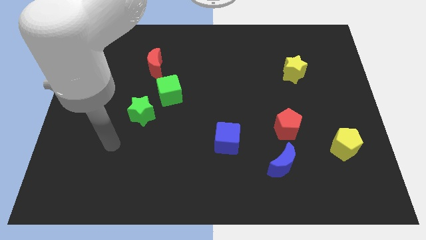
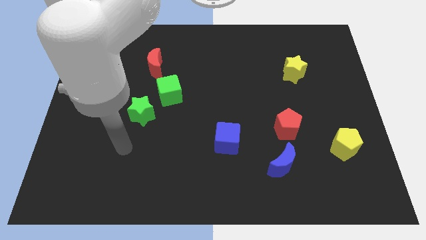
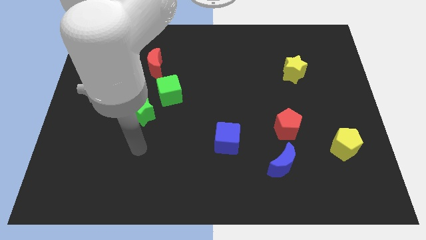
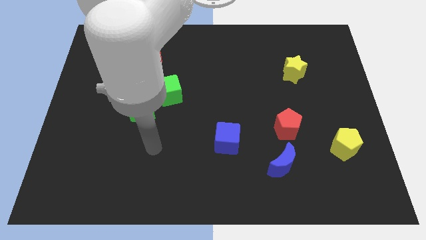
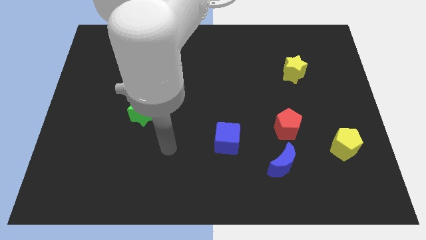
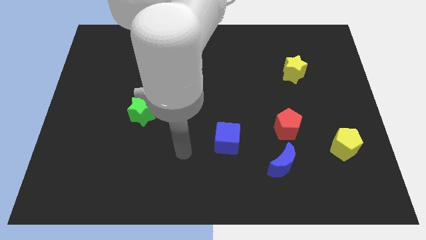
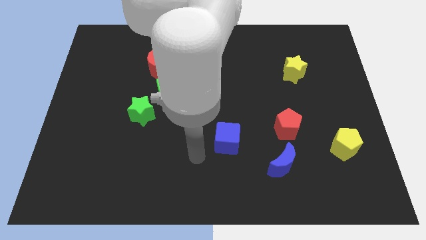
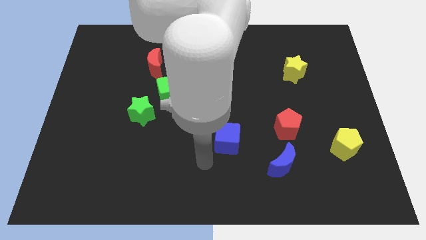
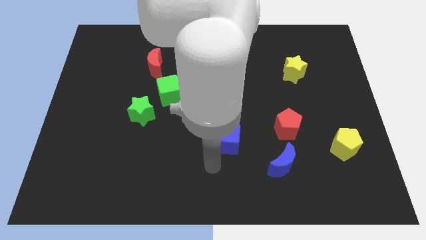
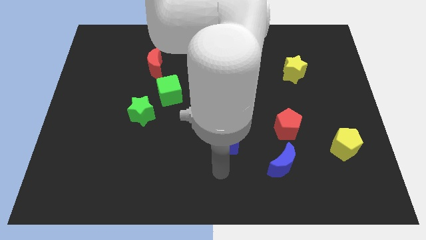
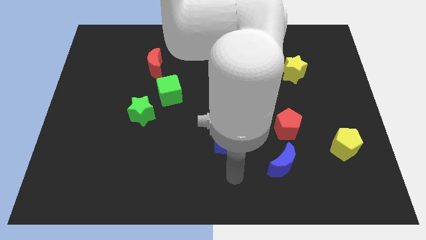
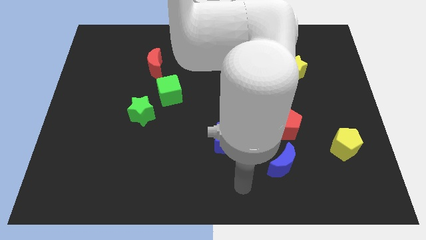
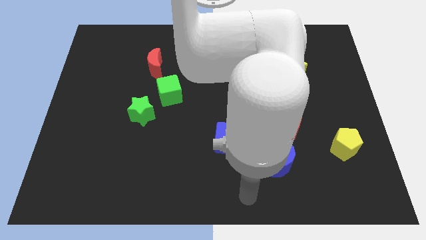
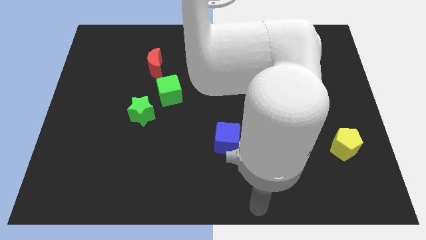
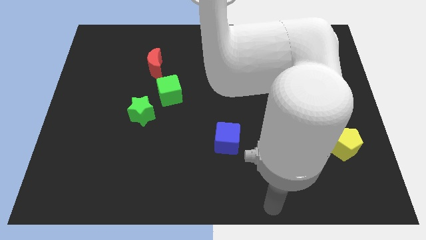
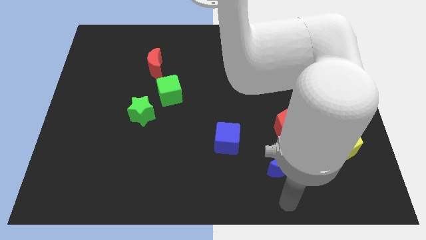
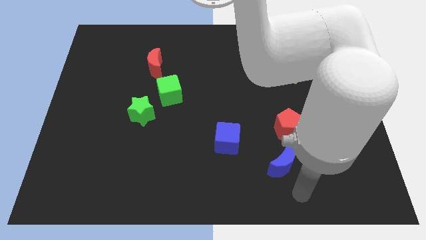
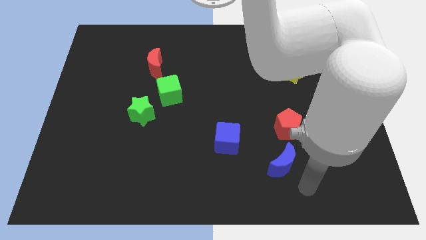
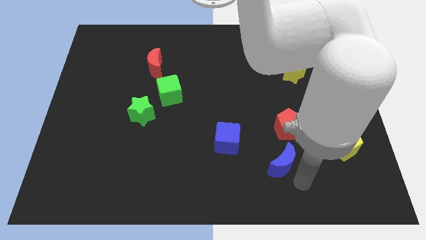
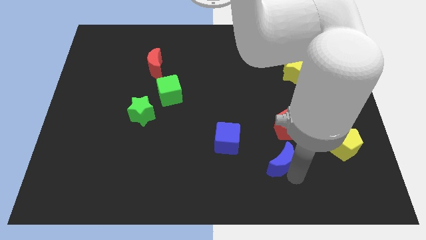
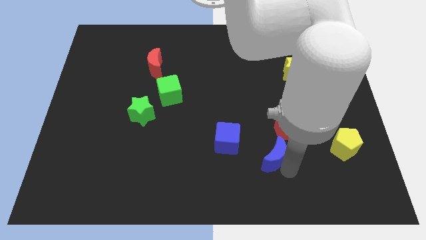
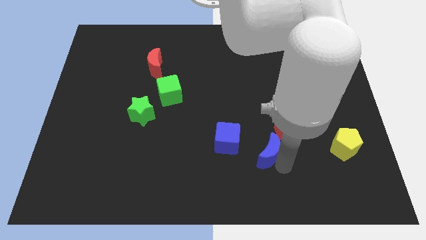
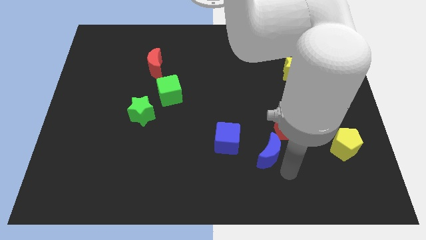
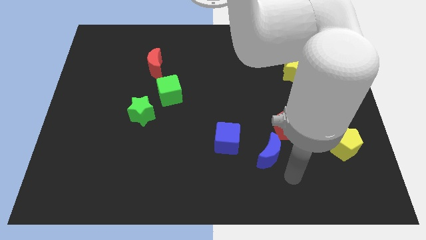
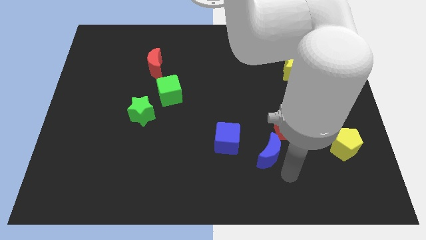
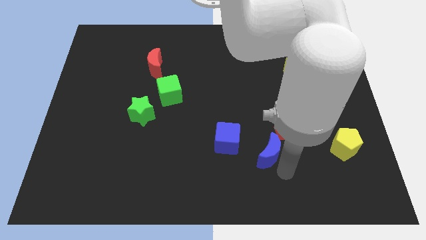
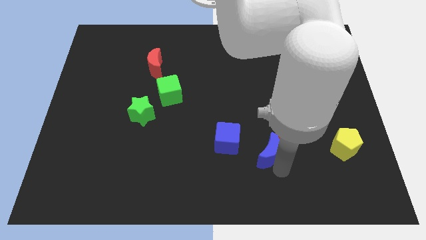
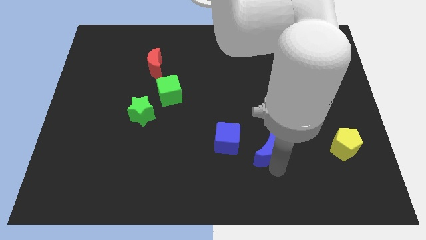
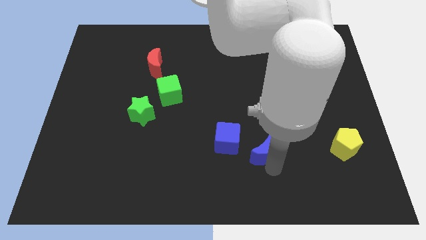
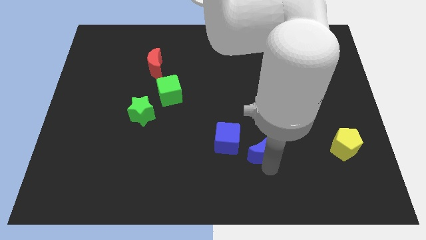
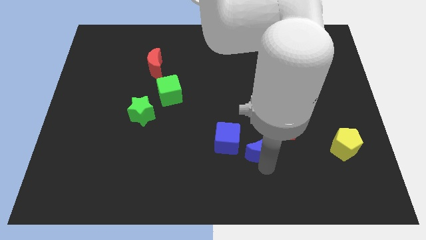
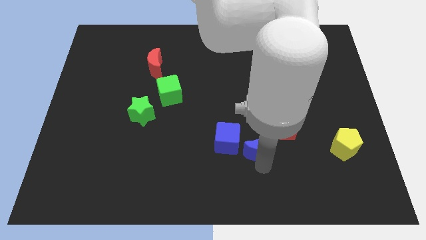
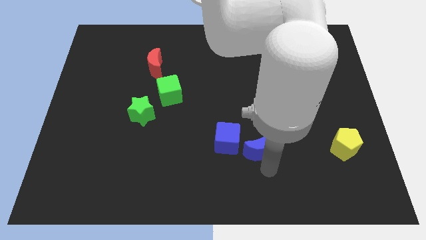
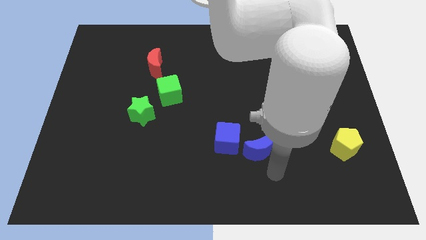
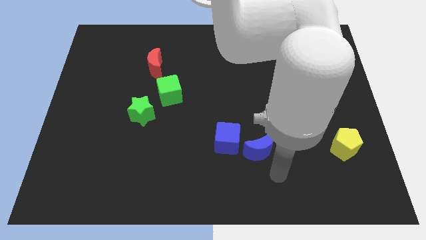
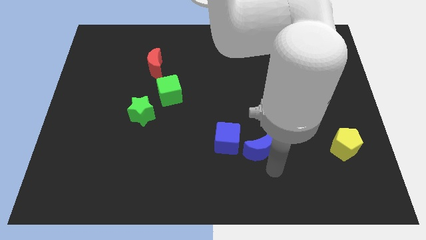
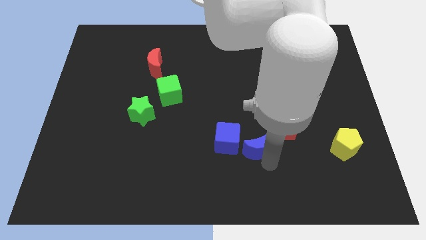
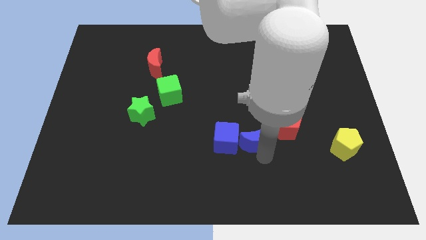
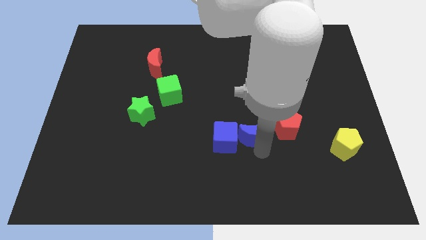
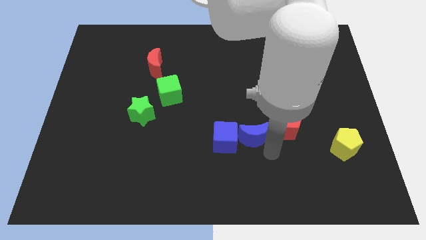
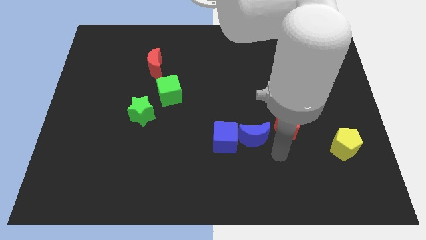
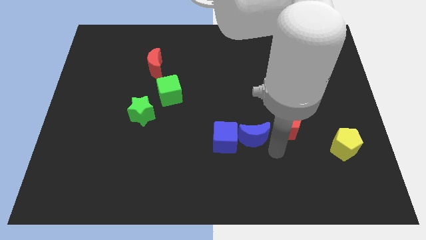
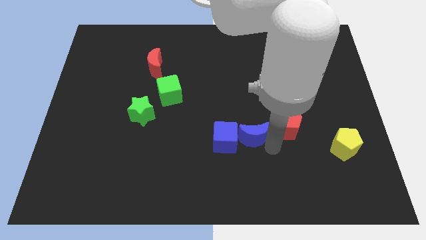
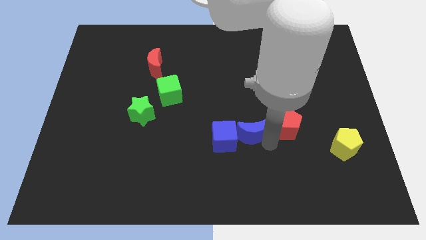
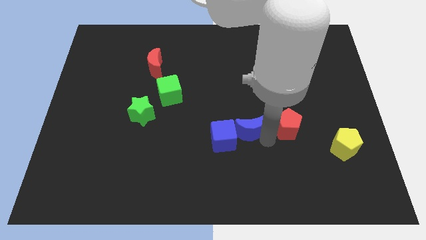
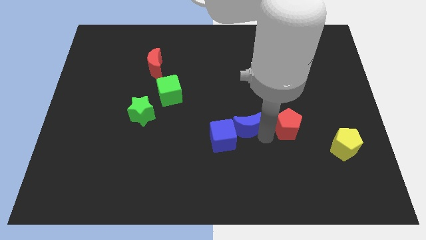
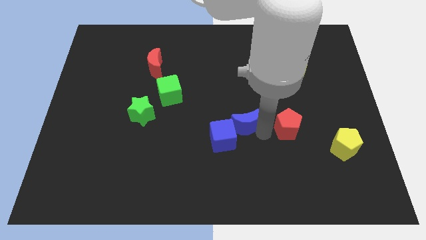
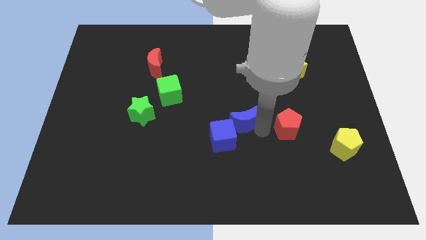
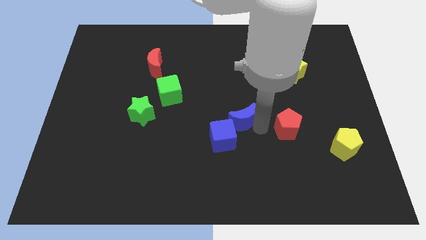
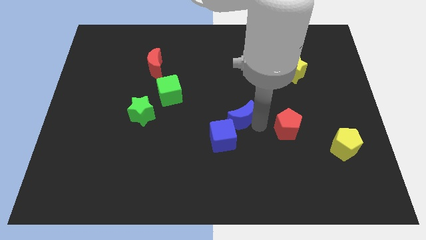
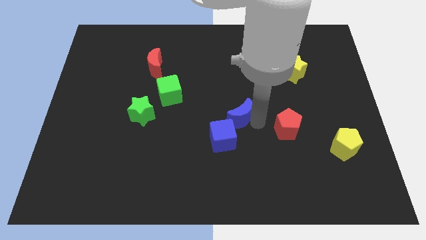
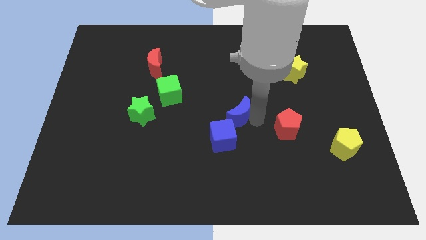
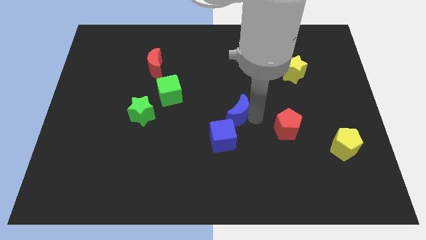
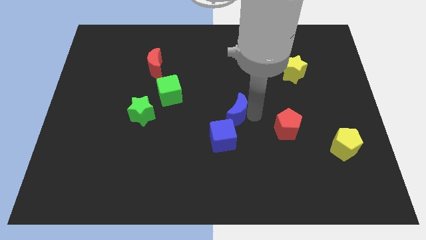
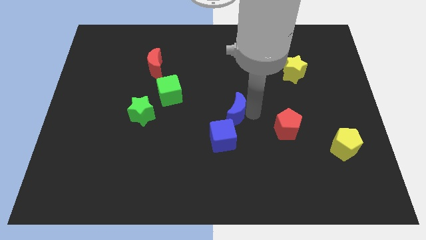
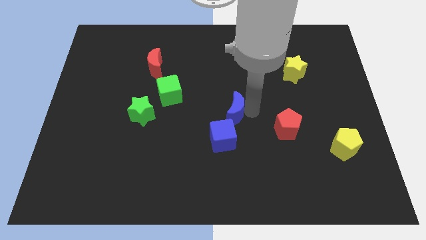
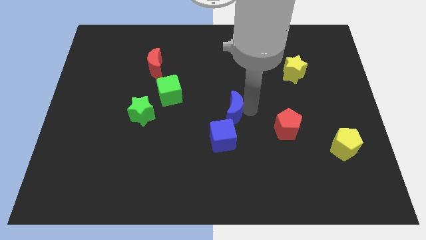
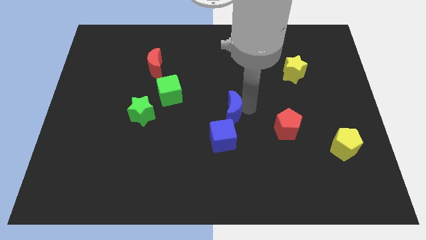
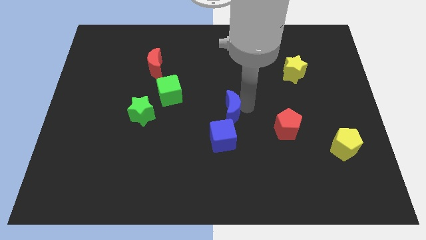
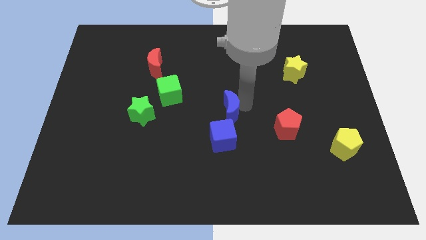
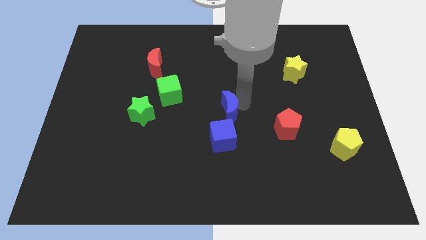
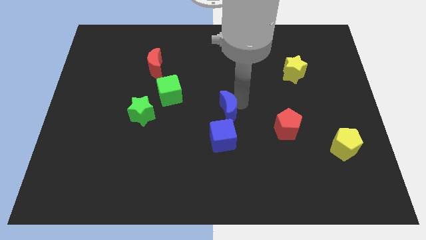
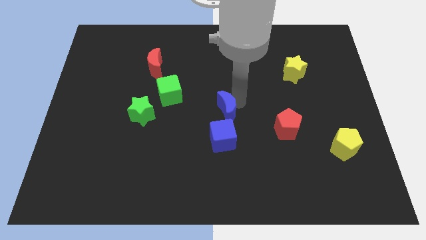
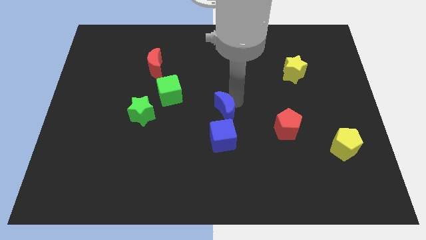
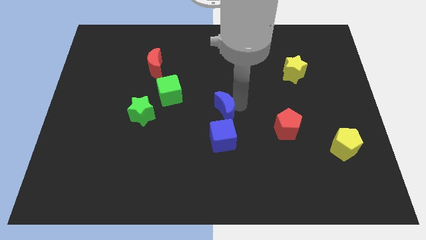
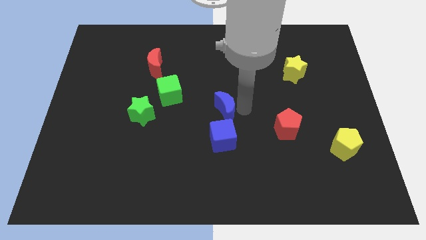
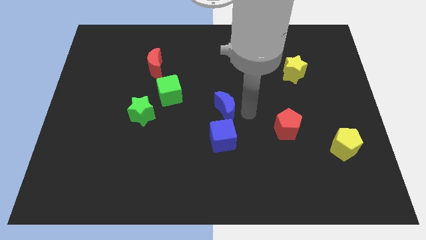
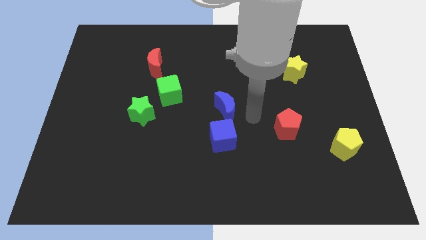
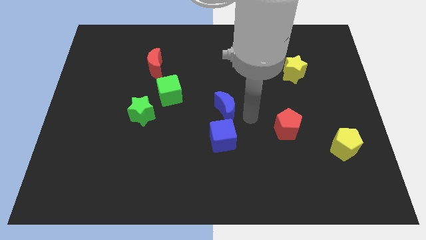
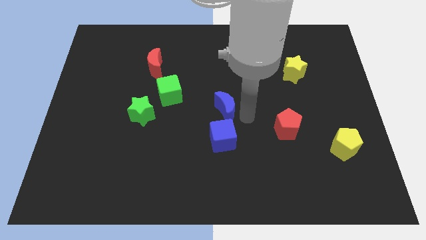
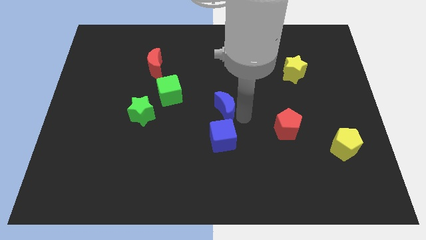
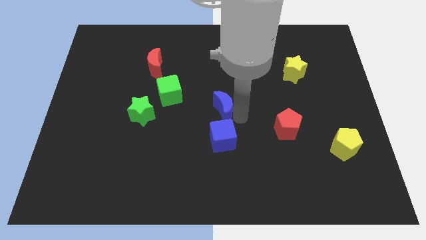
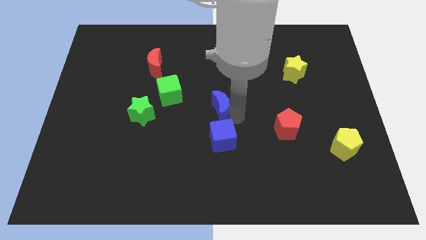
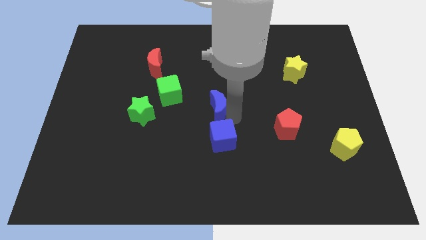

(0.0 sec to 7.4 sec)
push the blue moon upwards and then to the left

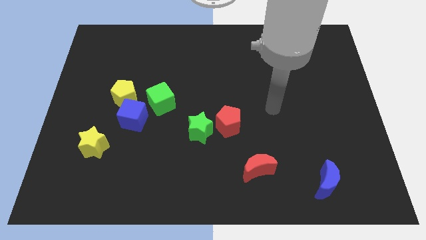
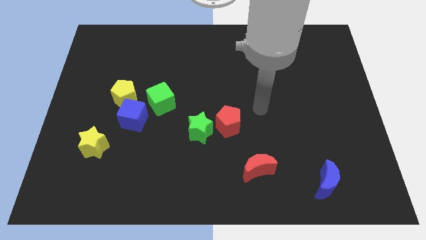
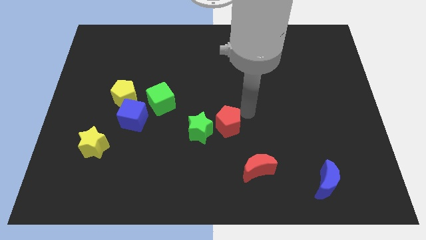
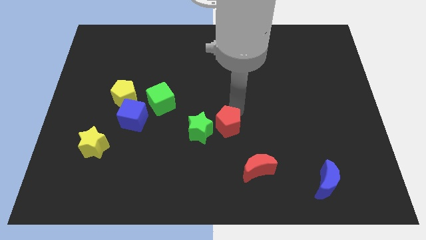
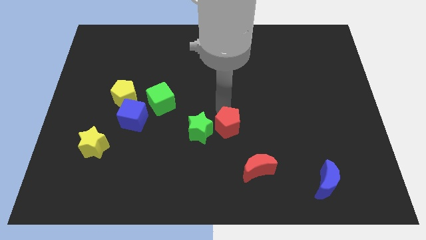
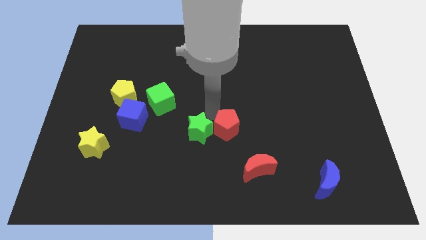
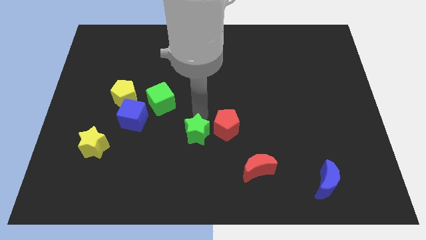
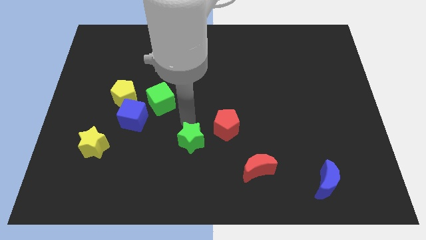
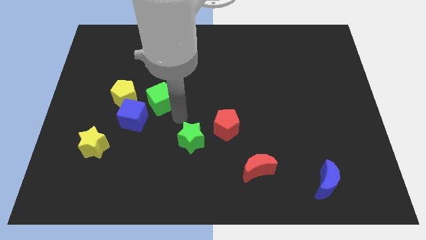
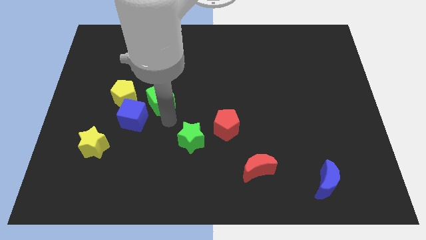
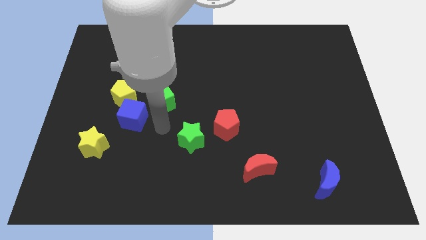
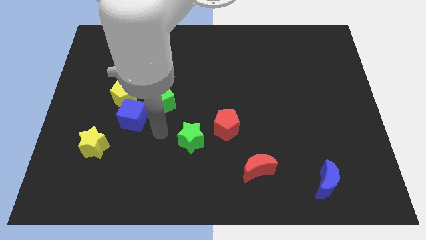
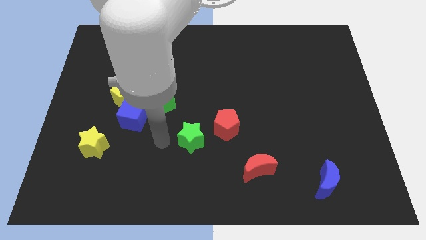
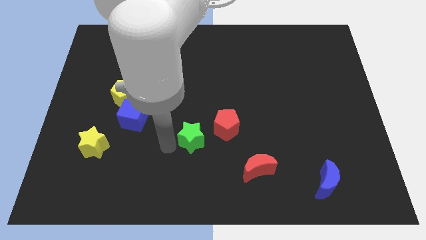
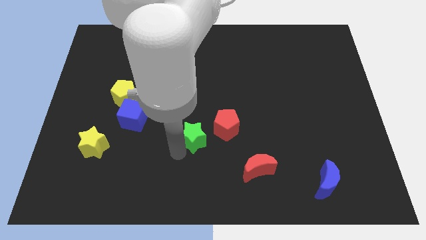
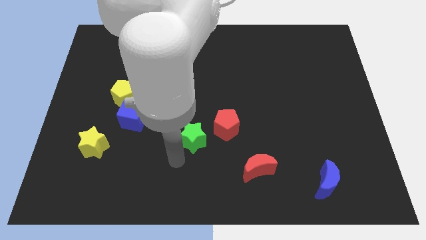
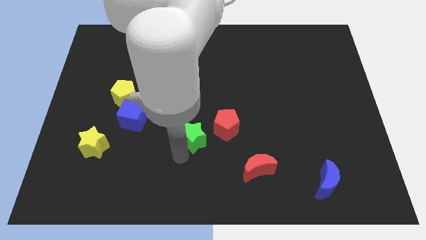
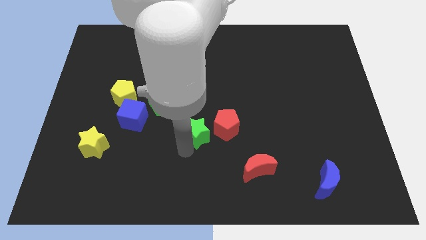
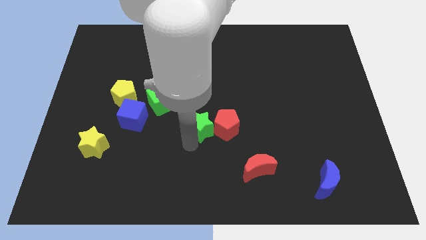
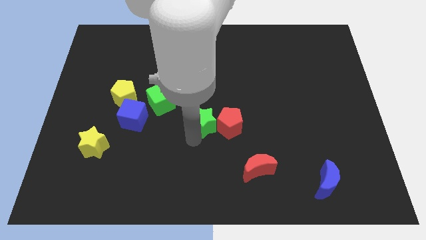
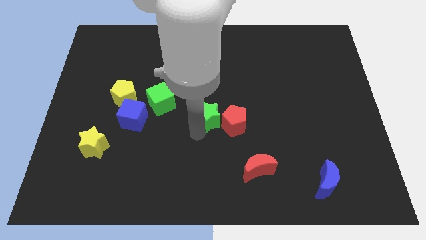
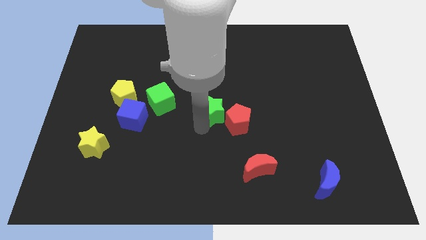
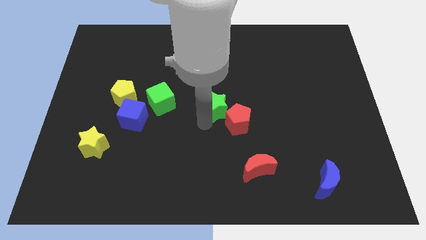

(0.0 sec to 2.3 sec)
slide the green star upwards and then right a little
